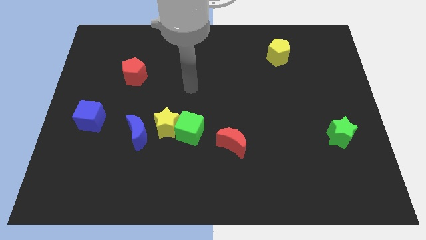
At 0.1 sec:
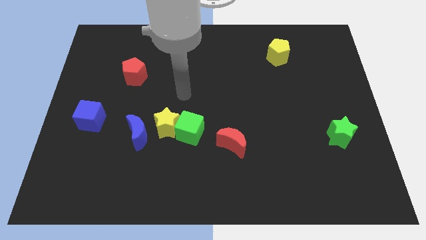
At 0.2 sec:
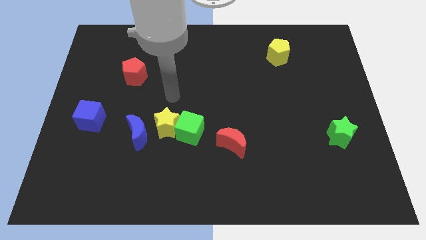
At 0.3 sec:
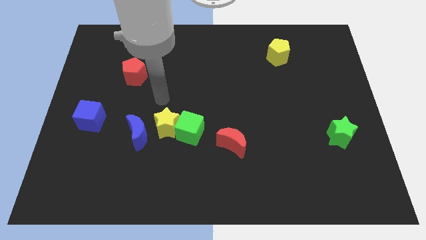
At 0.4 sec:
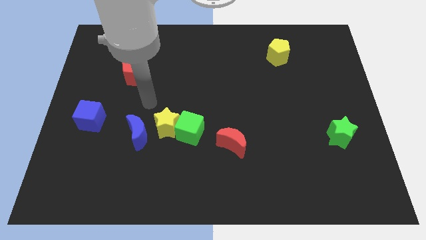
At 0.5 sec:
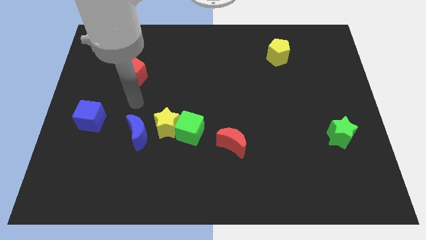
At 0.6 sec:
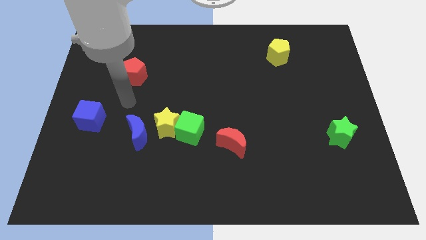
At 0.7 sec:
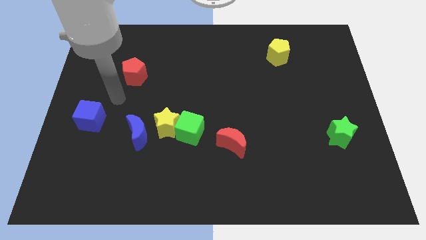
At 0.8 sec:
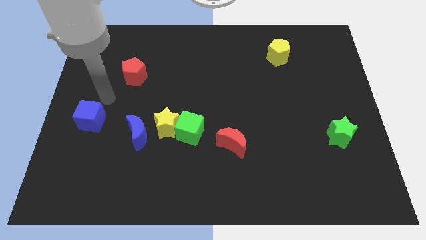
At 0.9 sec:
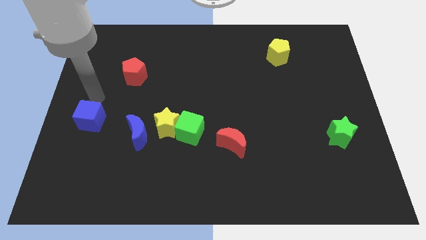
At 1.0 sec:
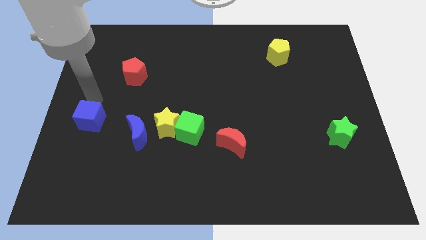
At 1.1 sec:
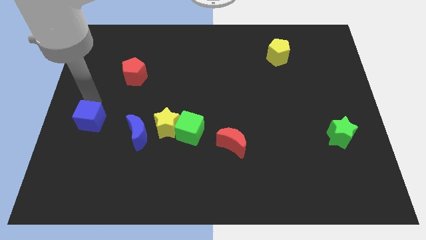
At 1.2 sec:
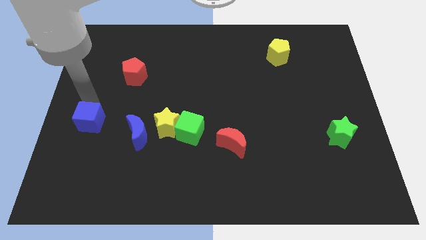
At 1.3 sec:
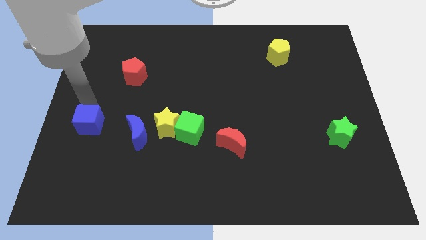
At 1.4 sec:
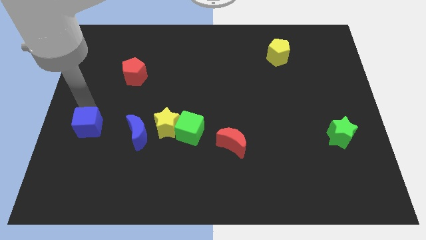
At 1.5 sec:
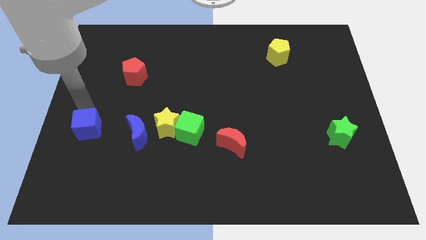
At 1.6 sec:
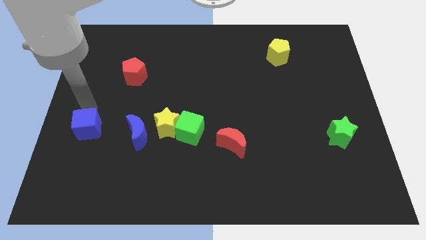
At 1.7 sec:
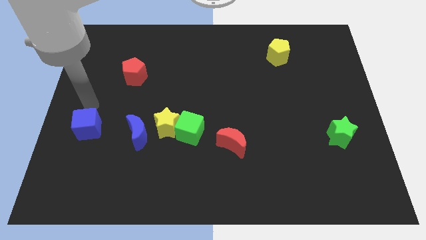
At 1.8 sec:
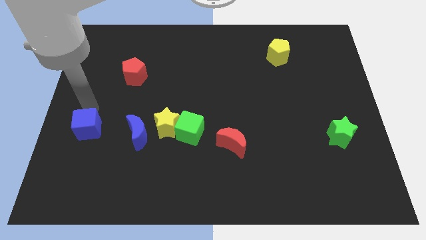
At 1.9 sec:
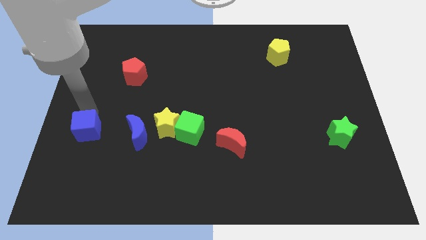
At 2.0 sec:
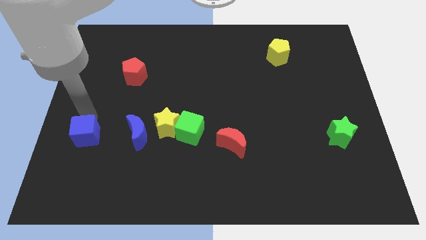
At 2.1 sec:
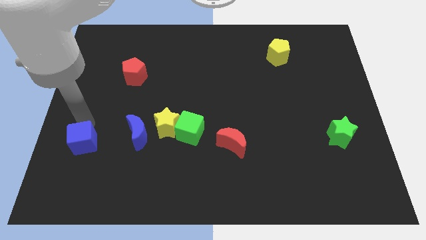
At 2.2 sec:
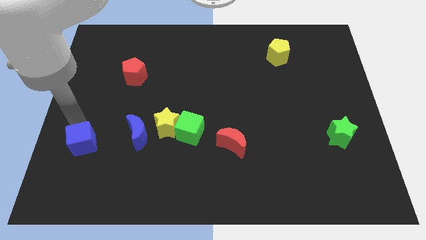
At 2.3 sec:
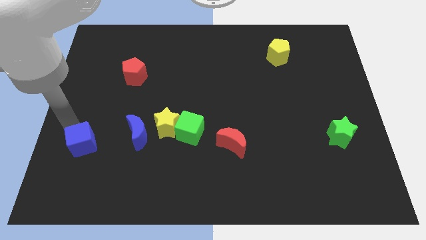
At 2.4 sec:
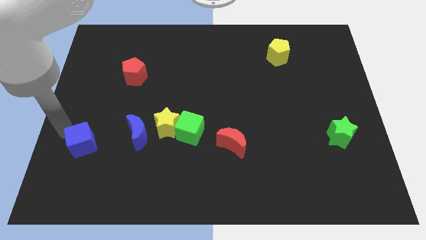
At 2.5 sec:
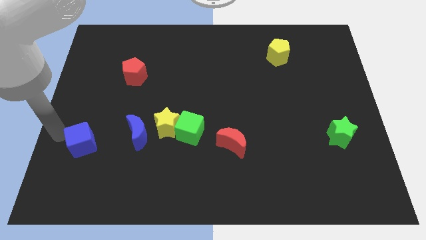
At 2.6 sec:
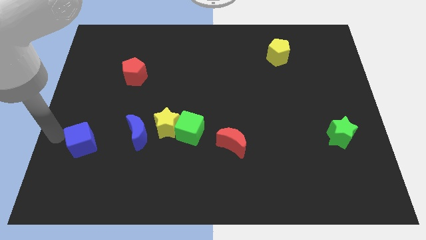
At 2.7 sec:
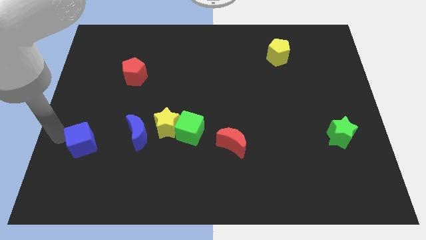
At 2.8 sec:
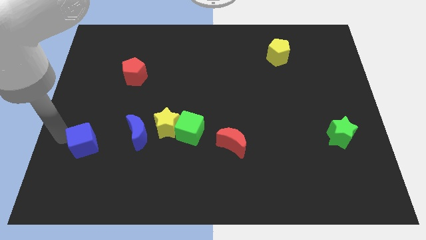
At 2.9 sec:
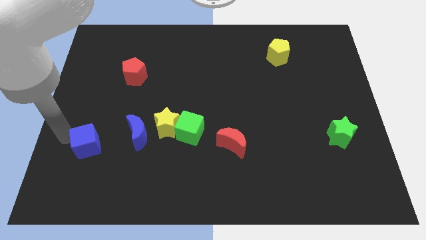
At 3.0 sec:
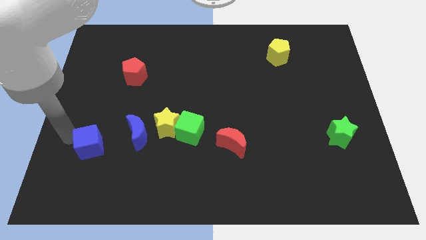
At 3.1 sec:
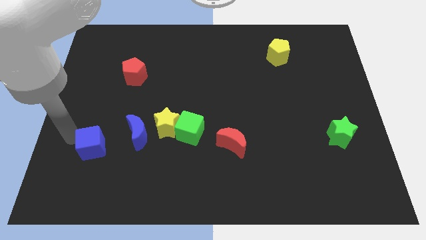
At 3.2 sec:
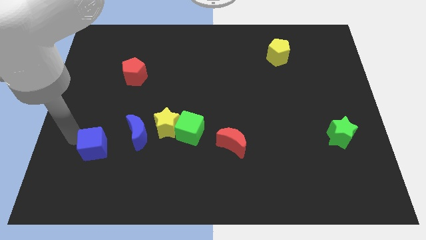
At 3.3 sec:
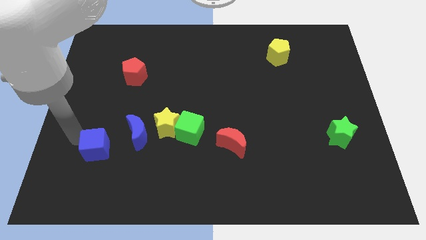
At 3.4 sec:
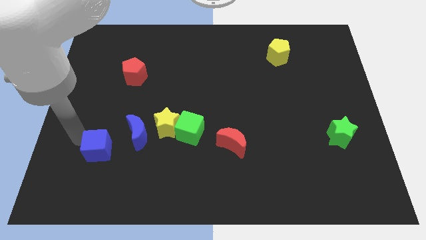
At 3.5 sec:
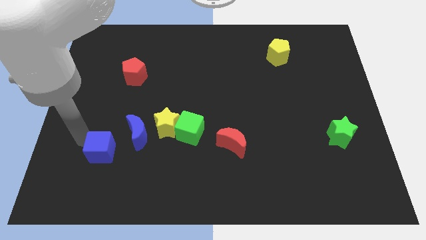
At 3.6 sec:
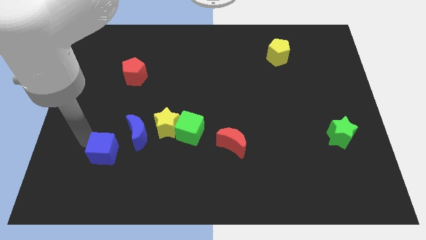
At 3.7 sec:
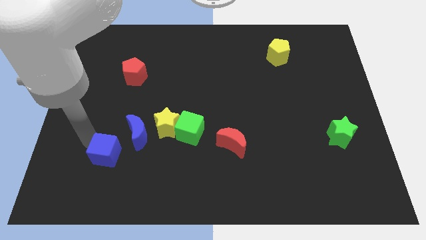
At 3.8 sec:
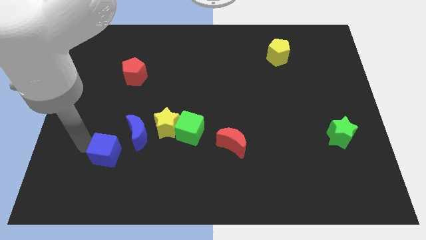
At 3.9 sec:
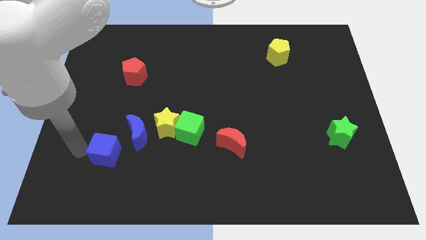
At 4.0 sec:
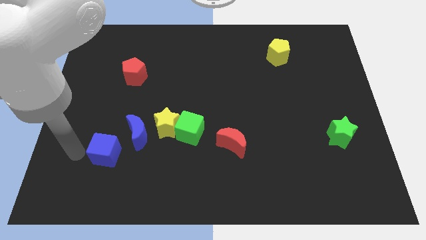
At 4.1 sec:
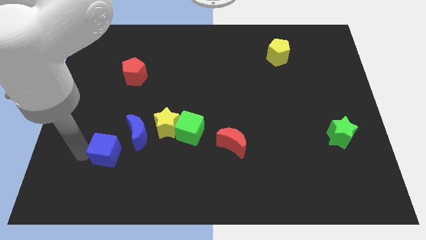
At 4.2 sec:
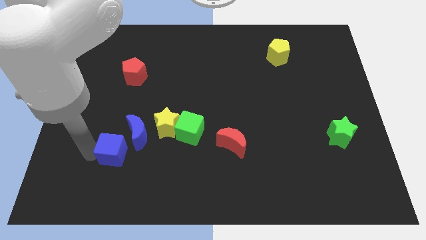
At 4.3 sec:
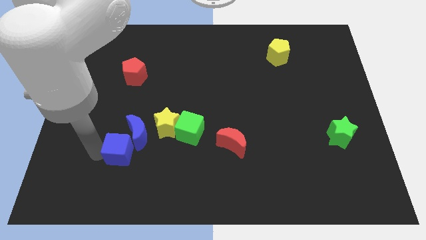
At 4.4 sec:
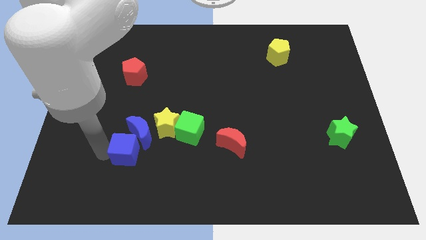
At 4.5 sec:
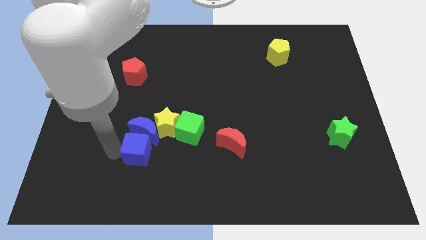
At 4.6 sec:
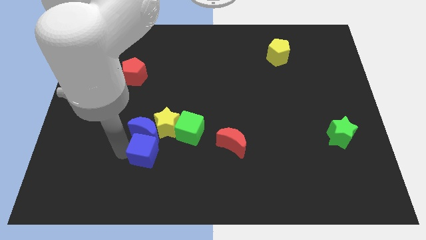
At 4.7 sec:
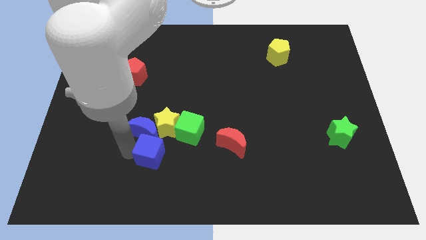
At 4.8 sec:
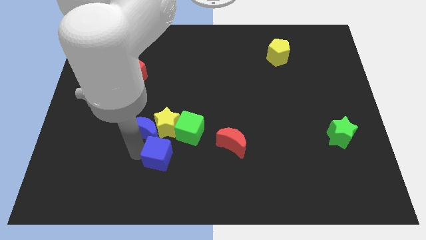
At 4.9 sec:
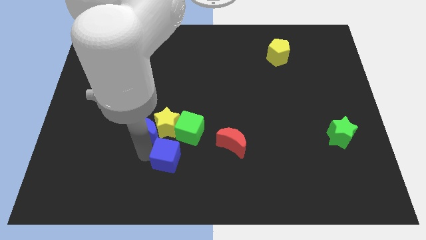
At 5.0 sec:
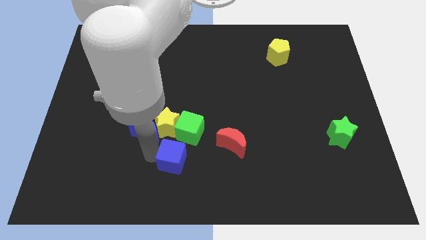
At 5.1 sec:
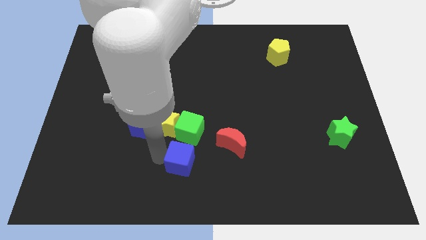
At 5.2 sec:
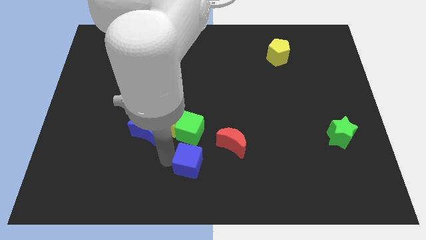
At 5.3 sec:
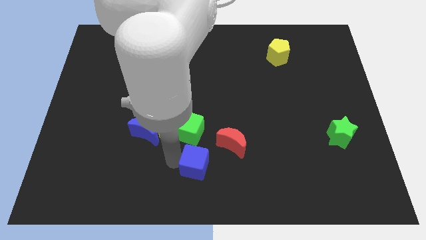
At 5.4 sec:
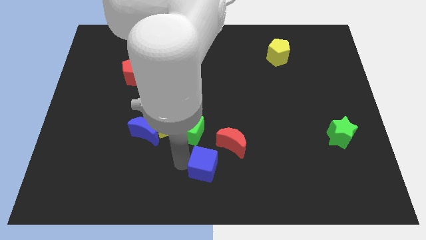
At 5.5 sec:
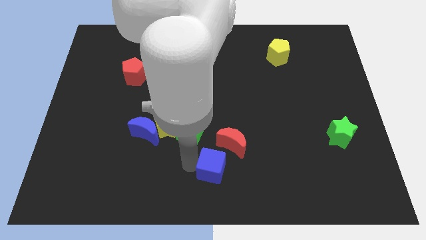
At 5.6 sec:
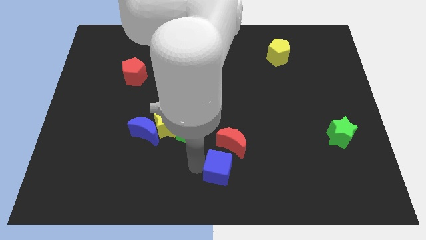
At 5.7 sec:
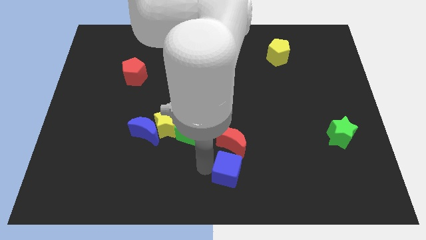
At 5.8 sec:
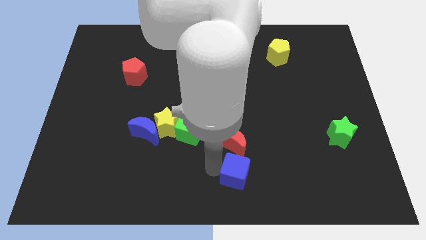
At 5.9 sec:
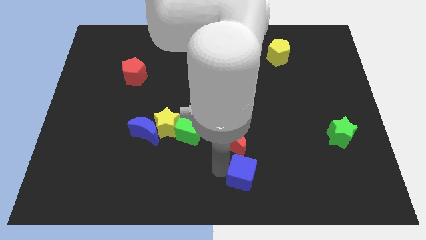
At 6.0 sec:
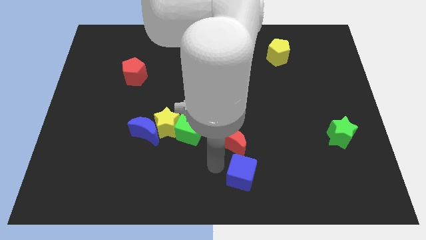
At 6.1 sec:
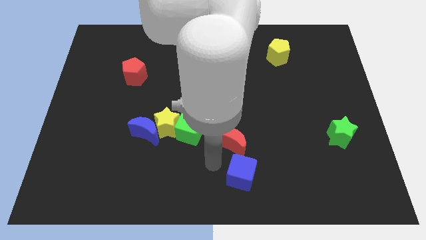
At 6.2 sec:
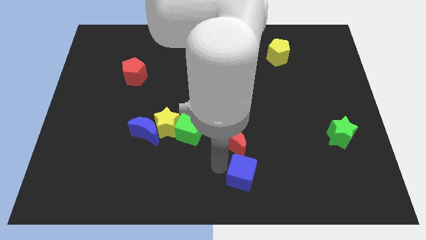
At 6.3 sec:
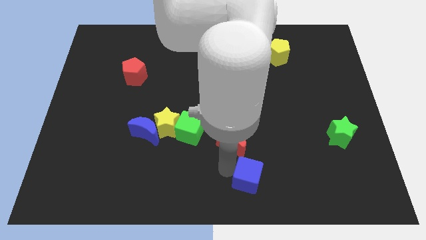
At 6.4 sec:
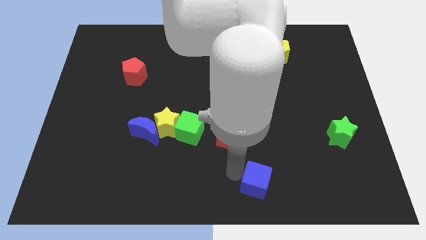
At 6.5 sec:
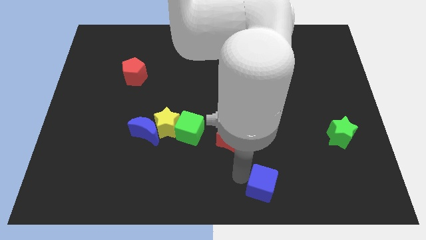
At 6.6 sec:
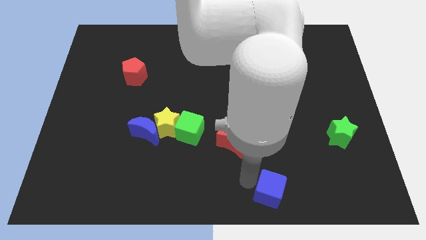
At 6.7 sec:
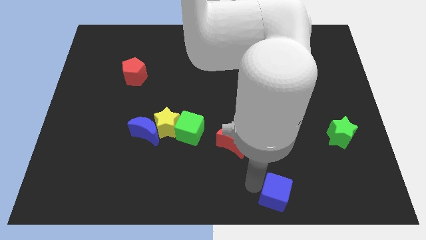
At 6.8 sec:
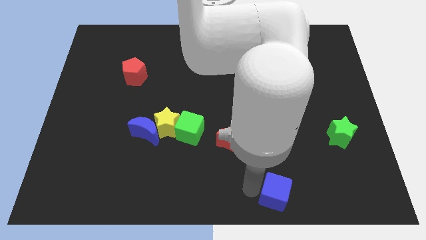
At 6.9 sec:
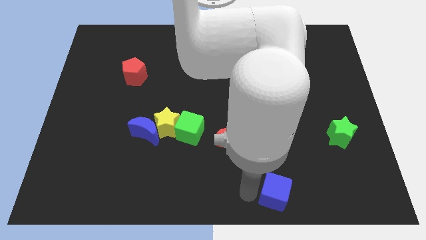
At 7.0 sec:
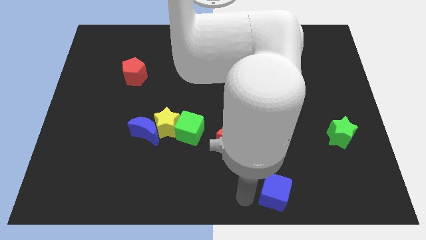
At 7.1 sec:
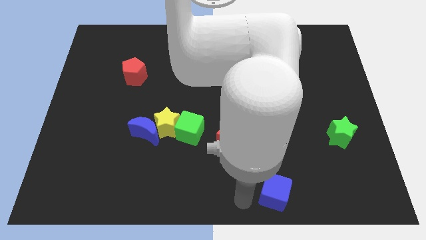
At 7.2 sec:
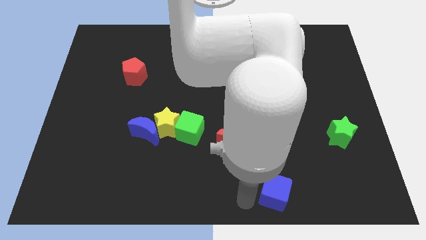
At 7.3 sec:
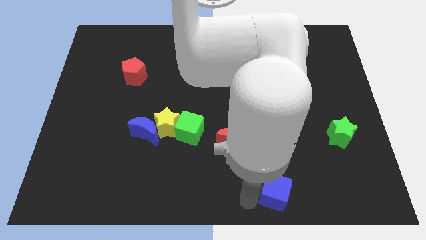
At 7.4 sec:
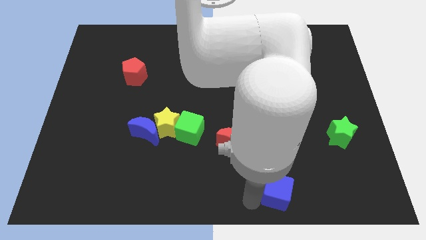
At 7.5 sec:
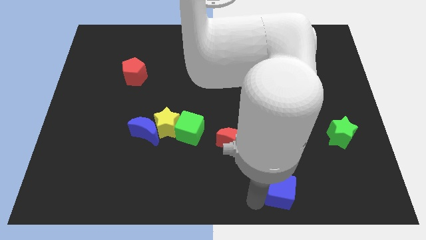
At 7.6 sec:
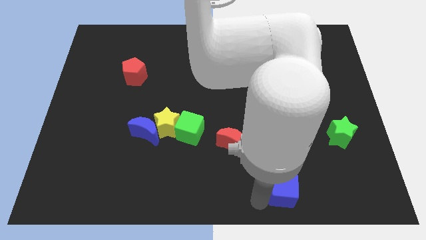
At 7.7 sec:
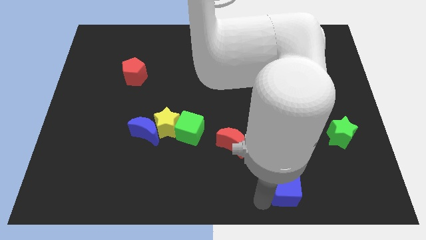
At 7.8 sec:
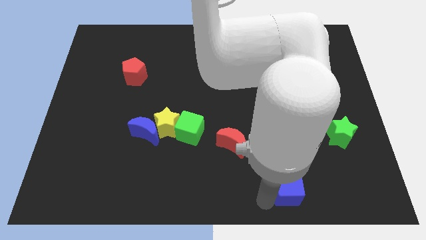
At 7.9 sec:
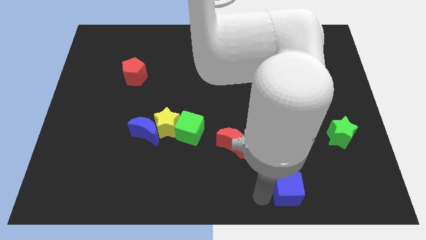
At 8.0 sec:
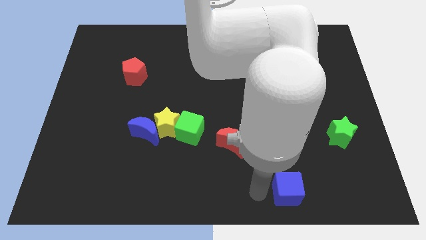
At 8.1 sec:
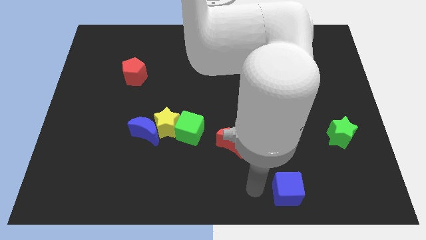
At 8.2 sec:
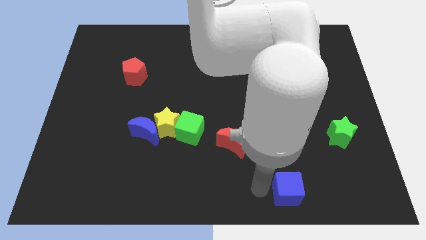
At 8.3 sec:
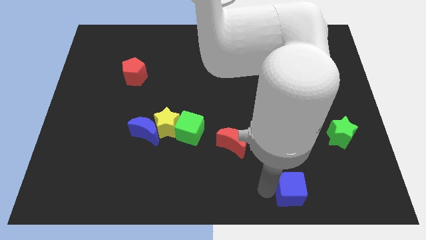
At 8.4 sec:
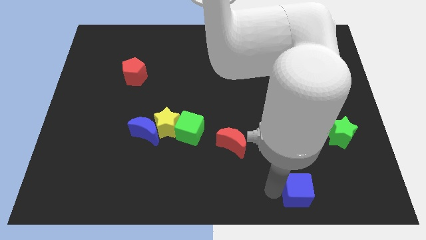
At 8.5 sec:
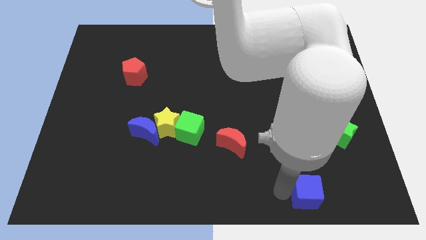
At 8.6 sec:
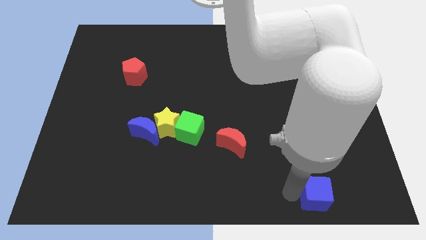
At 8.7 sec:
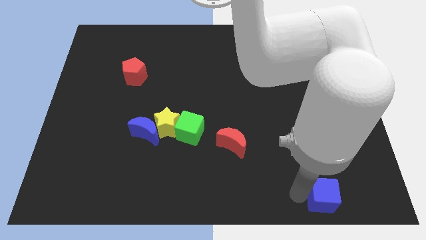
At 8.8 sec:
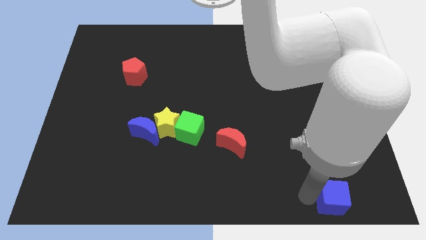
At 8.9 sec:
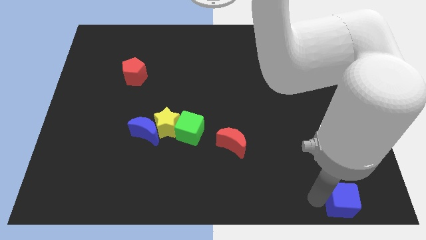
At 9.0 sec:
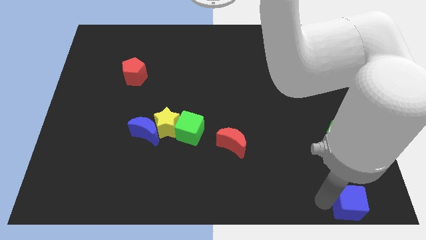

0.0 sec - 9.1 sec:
slide the blue cube to the bottom right
